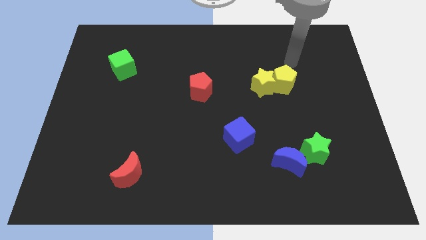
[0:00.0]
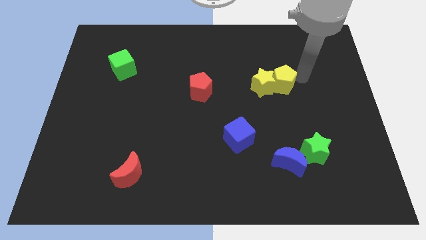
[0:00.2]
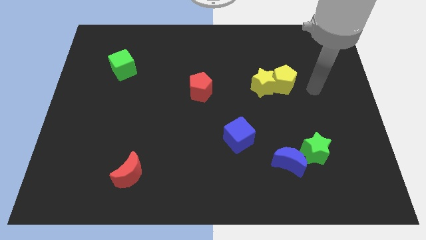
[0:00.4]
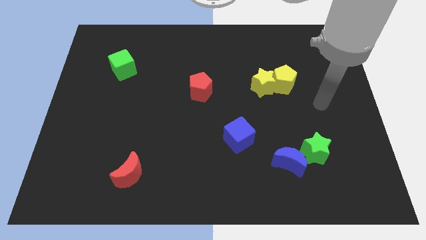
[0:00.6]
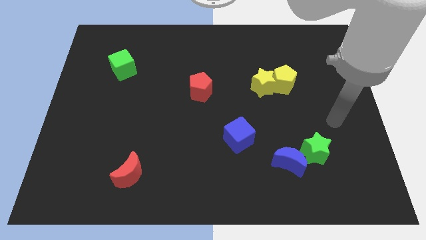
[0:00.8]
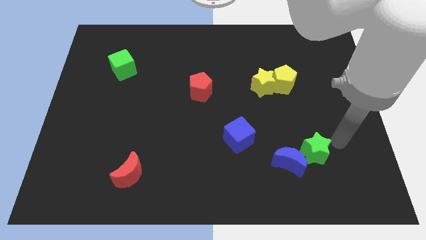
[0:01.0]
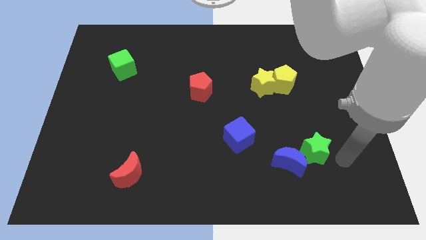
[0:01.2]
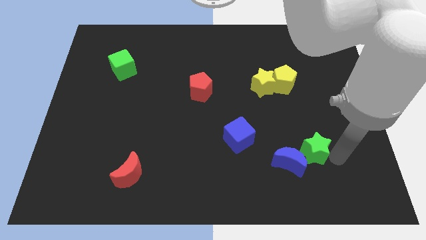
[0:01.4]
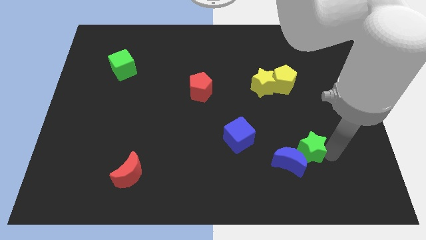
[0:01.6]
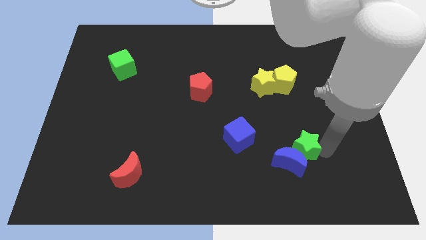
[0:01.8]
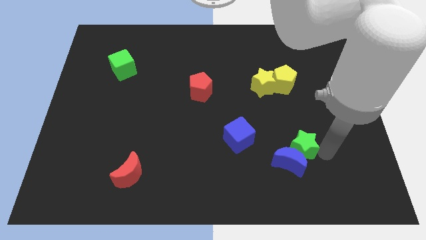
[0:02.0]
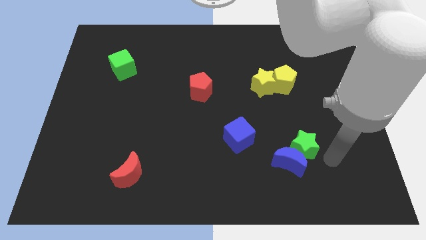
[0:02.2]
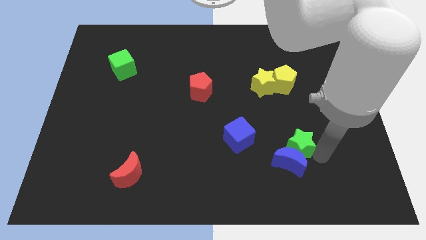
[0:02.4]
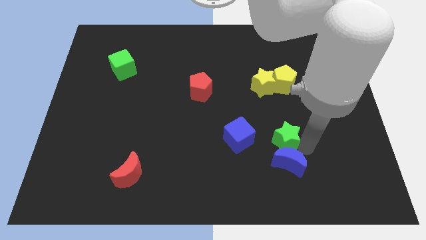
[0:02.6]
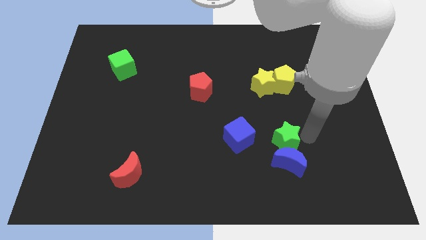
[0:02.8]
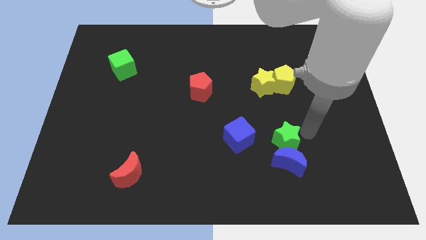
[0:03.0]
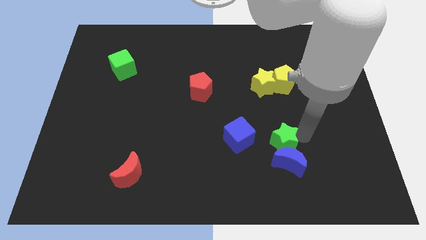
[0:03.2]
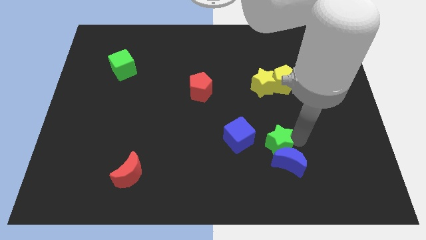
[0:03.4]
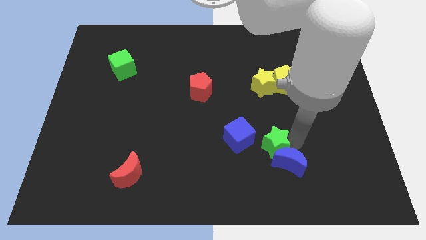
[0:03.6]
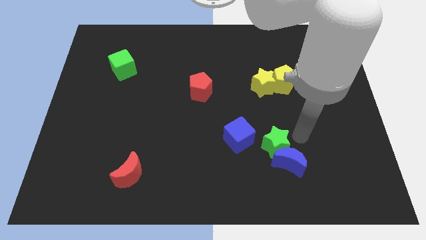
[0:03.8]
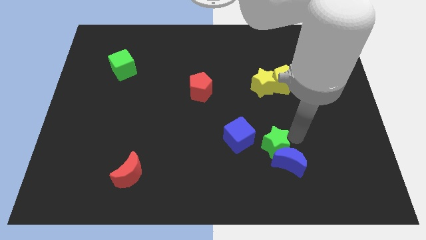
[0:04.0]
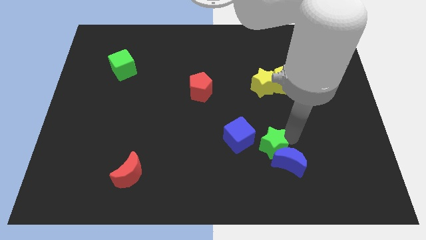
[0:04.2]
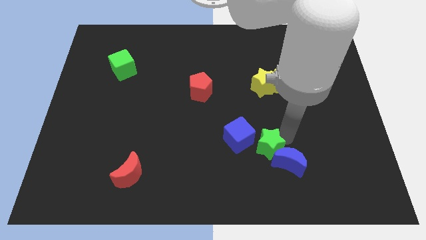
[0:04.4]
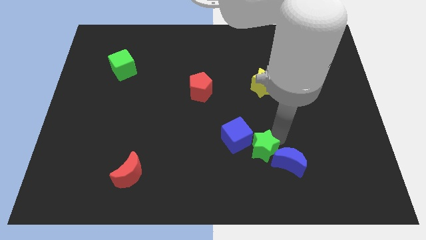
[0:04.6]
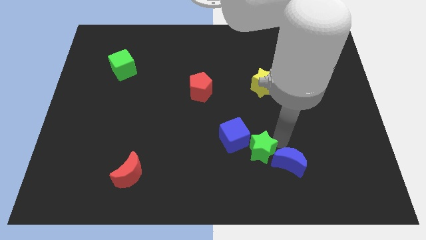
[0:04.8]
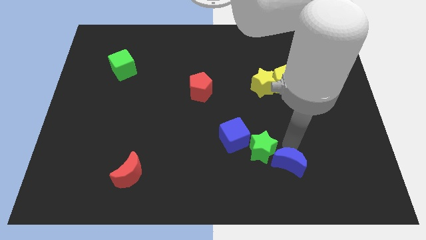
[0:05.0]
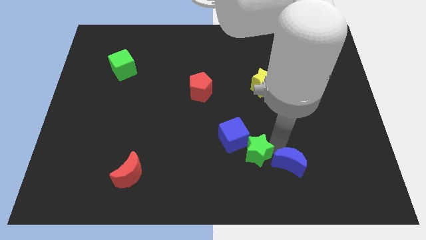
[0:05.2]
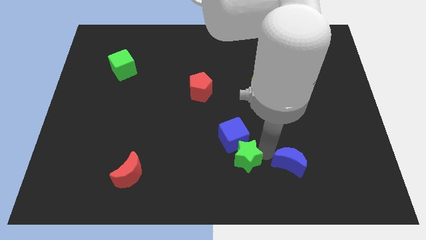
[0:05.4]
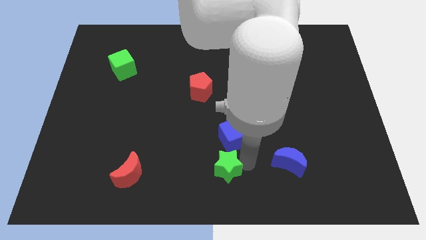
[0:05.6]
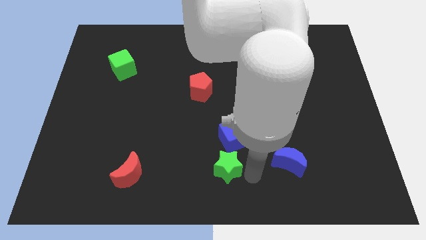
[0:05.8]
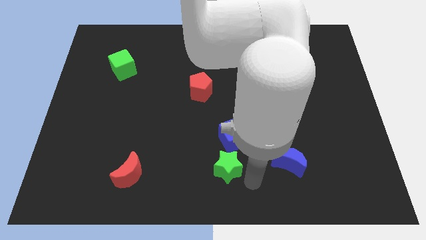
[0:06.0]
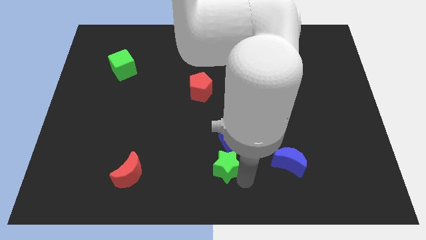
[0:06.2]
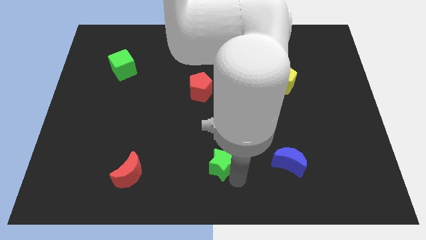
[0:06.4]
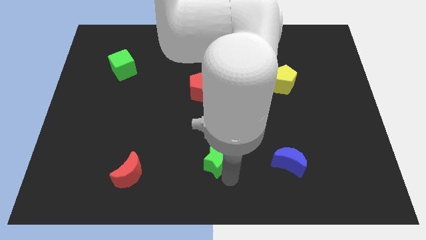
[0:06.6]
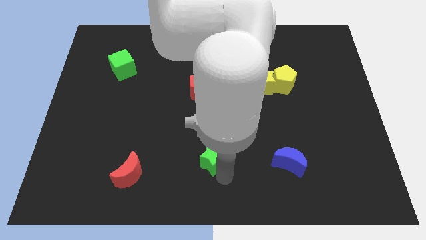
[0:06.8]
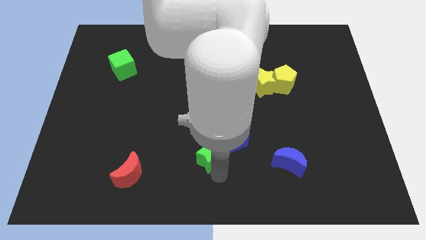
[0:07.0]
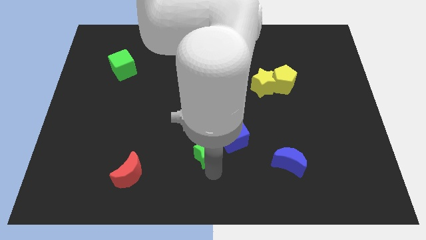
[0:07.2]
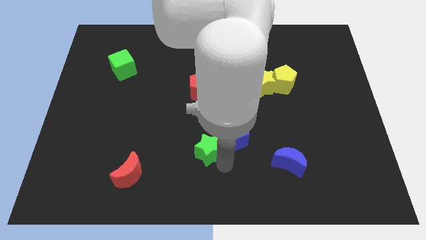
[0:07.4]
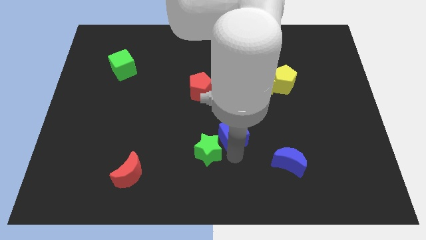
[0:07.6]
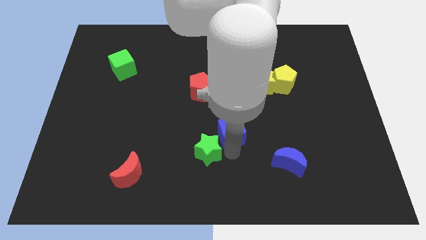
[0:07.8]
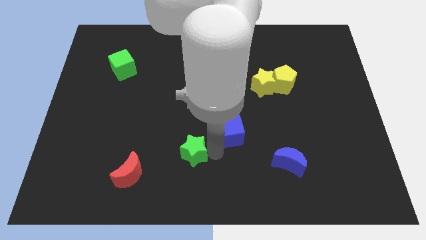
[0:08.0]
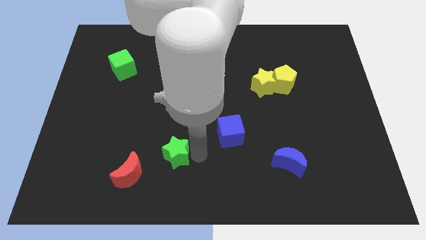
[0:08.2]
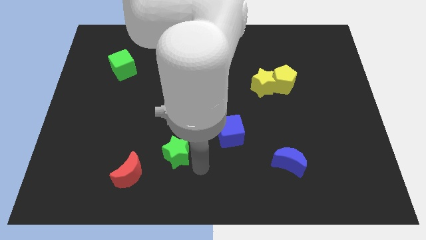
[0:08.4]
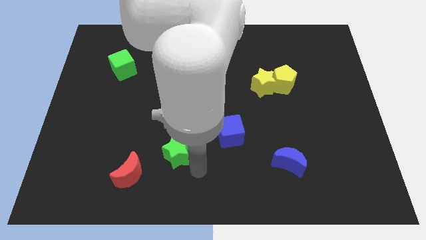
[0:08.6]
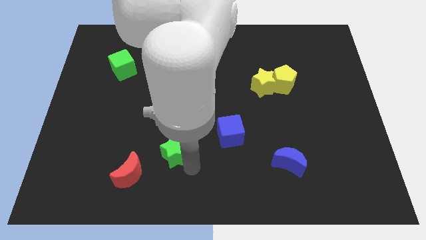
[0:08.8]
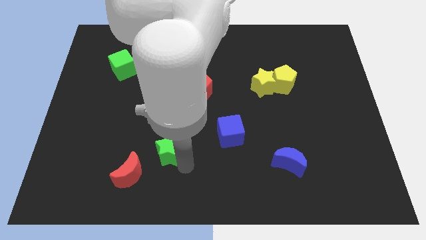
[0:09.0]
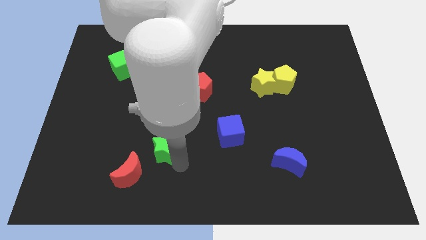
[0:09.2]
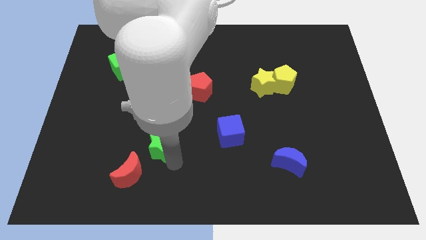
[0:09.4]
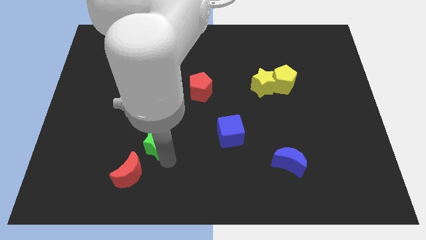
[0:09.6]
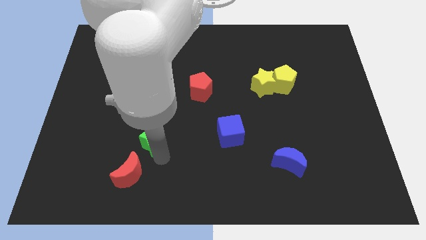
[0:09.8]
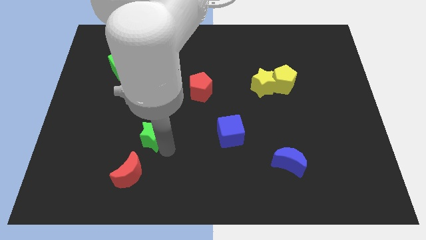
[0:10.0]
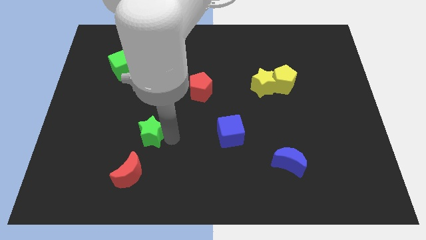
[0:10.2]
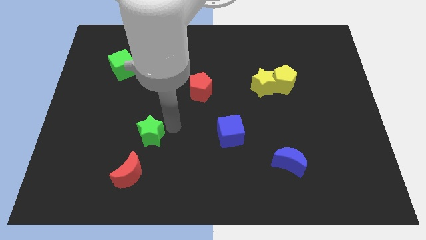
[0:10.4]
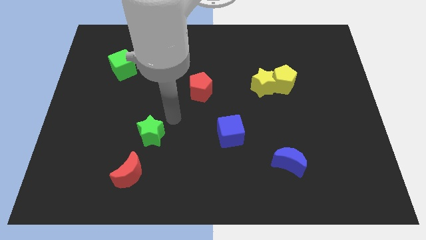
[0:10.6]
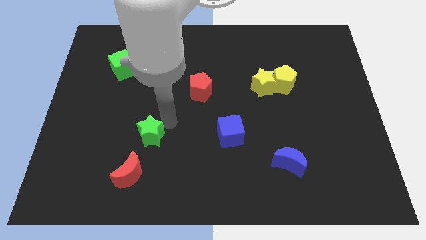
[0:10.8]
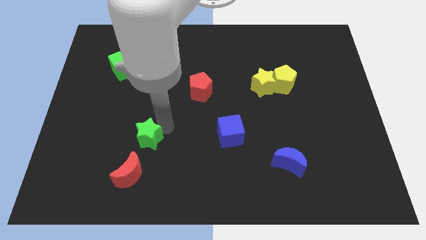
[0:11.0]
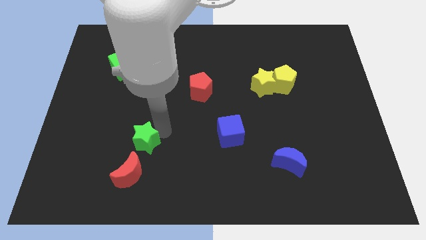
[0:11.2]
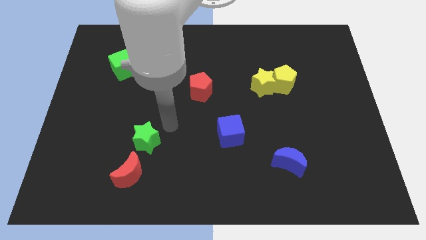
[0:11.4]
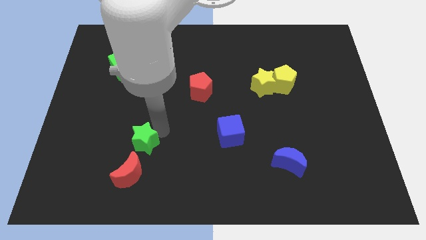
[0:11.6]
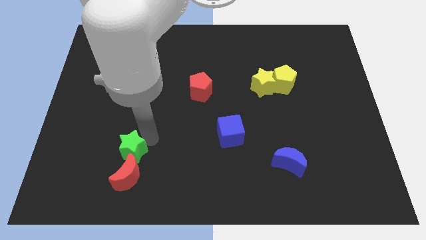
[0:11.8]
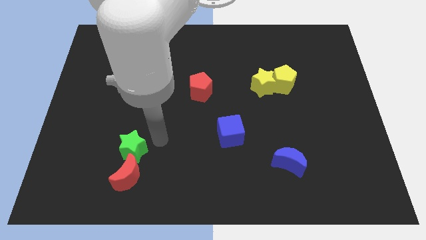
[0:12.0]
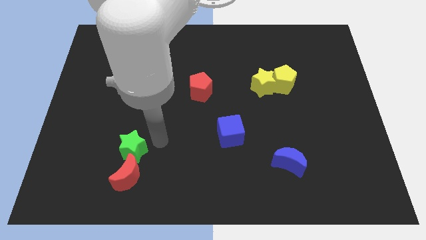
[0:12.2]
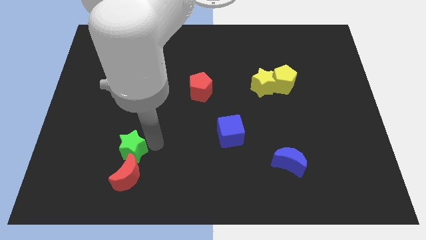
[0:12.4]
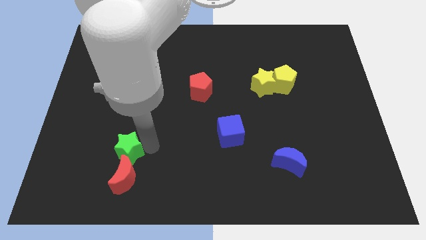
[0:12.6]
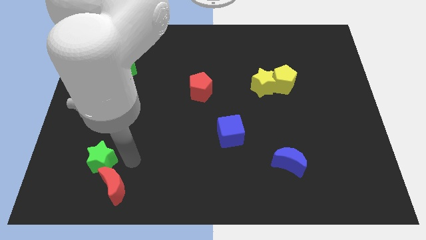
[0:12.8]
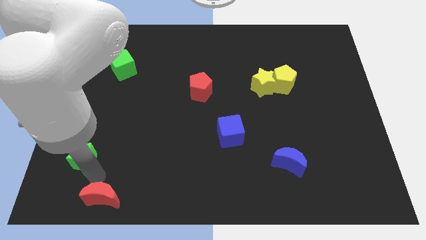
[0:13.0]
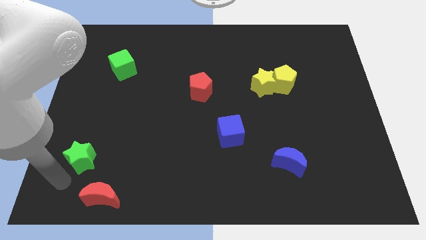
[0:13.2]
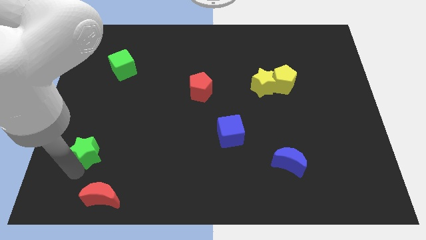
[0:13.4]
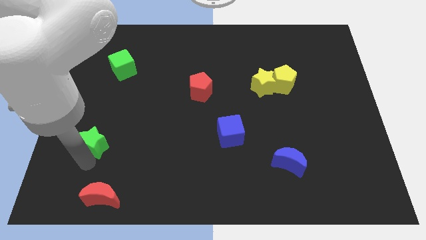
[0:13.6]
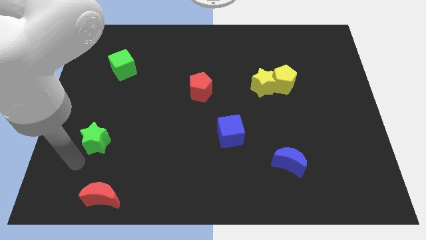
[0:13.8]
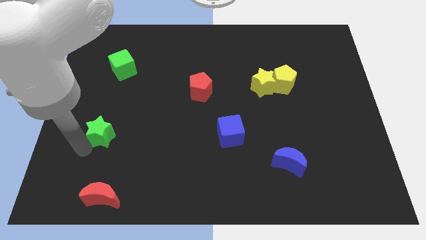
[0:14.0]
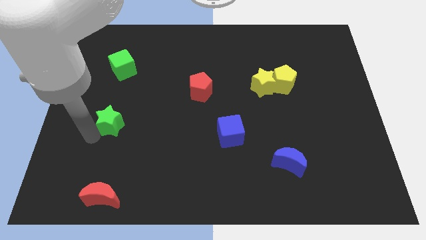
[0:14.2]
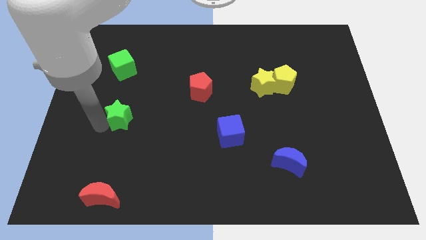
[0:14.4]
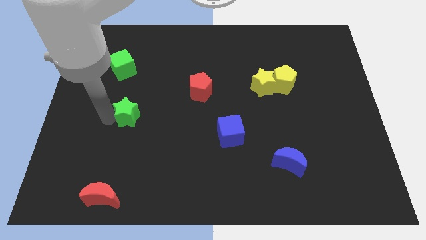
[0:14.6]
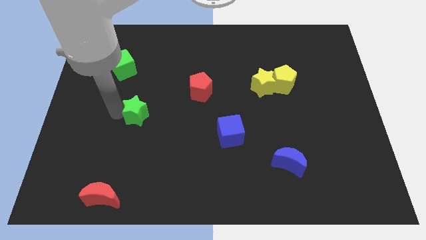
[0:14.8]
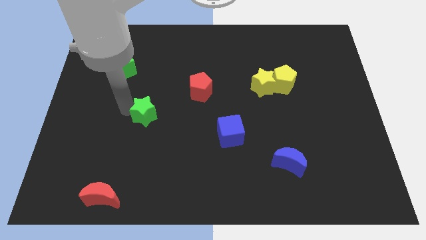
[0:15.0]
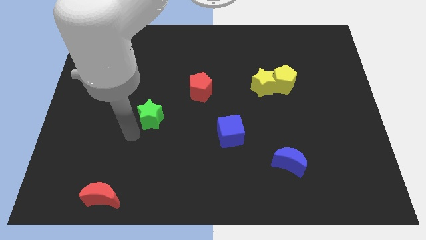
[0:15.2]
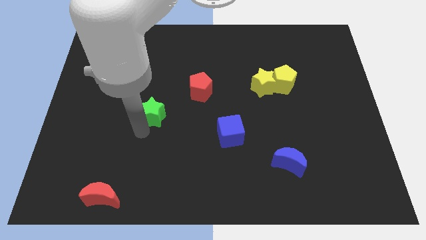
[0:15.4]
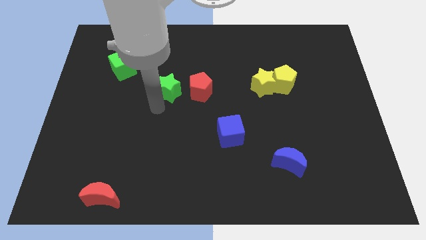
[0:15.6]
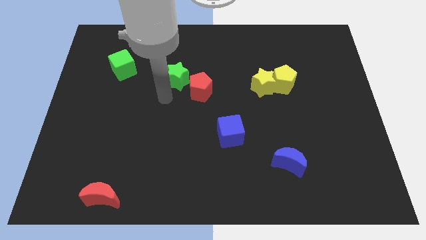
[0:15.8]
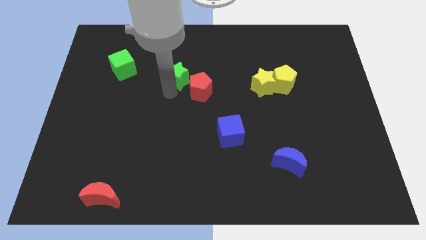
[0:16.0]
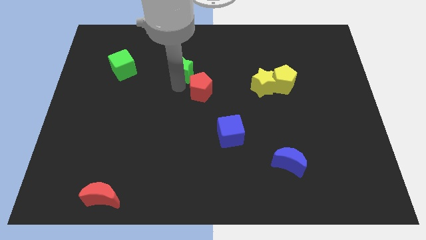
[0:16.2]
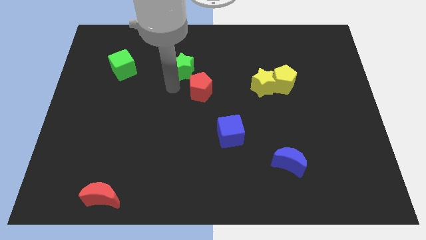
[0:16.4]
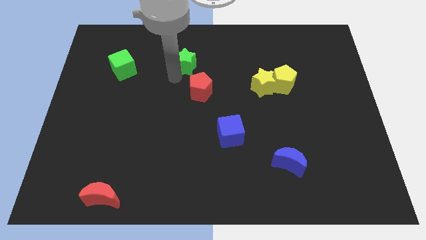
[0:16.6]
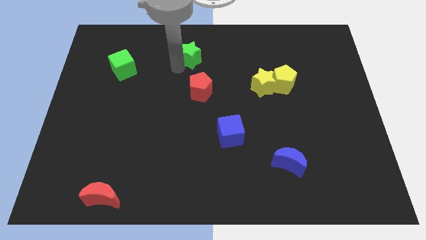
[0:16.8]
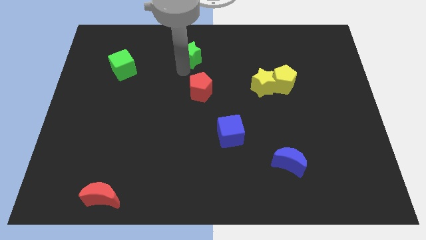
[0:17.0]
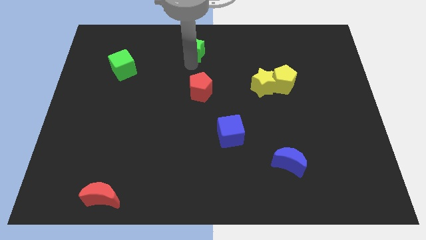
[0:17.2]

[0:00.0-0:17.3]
push the green star to the top
